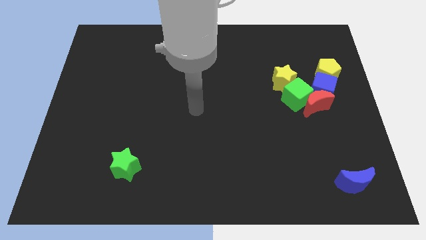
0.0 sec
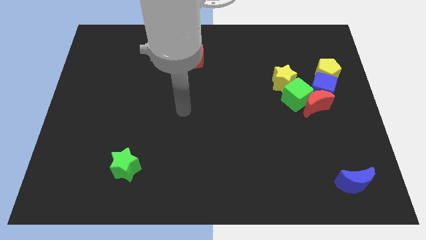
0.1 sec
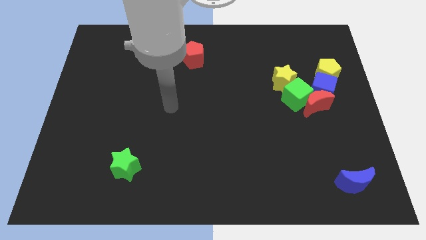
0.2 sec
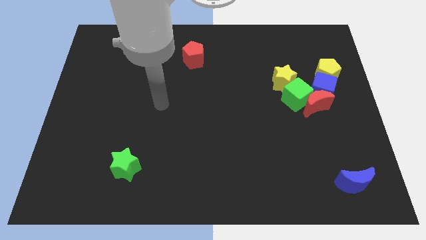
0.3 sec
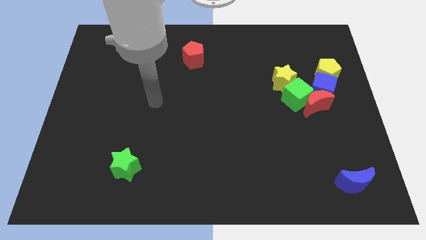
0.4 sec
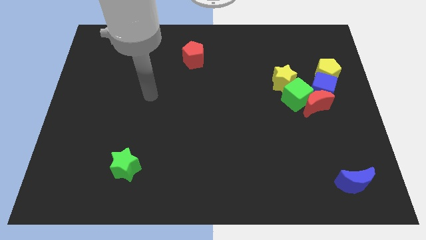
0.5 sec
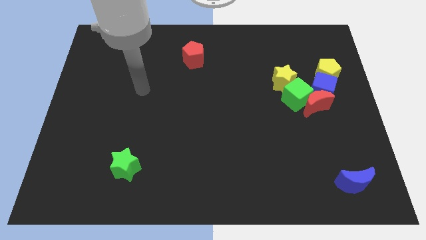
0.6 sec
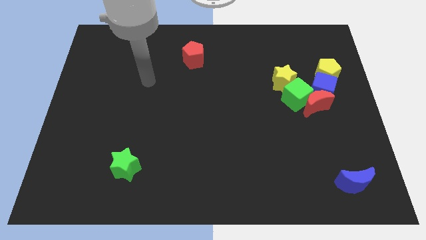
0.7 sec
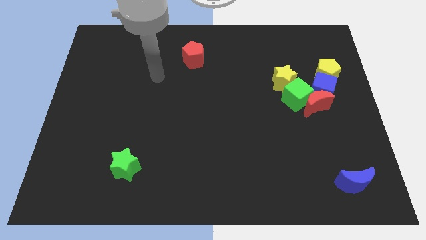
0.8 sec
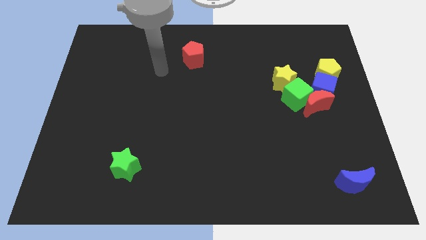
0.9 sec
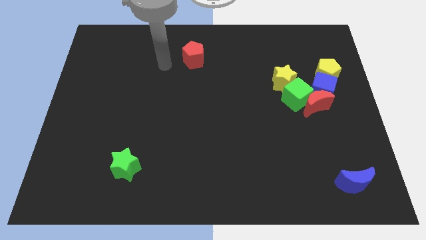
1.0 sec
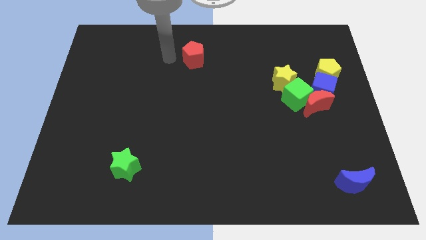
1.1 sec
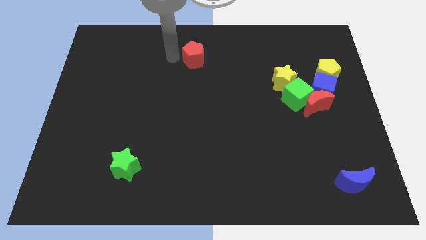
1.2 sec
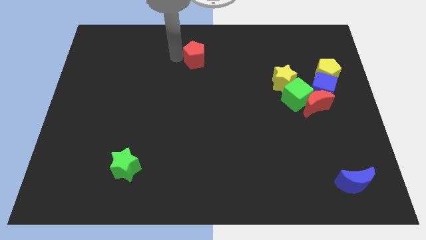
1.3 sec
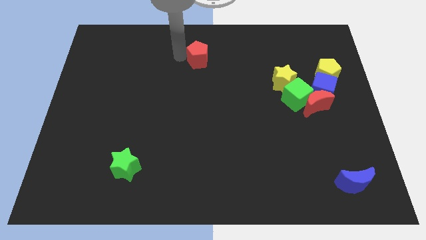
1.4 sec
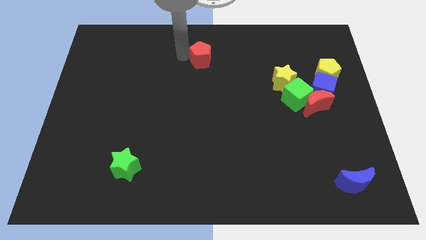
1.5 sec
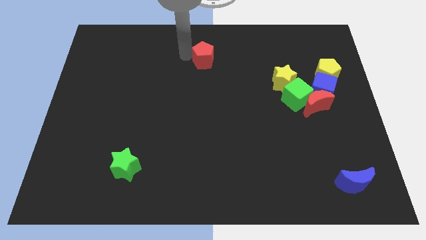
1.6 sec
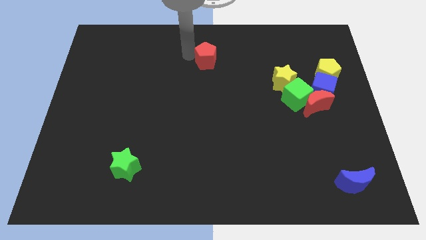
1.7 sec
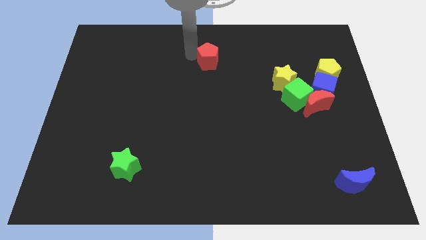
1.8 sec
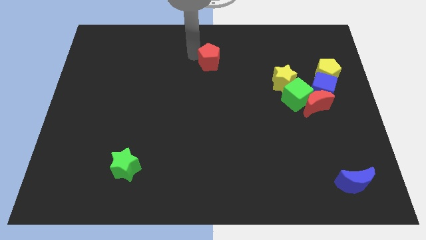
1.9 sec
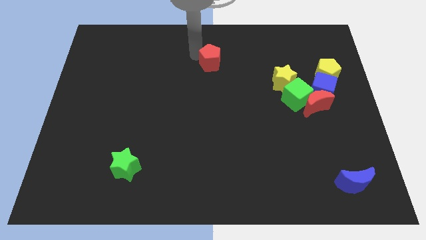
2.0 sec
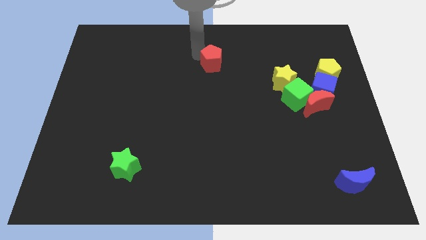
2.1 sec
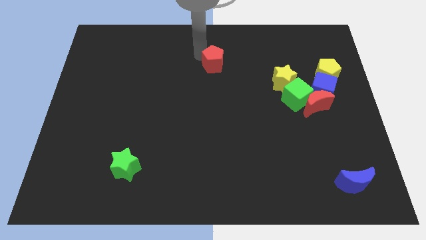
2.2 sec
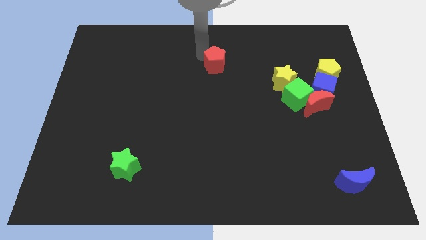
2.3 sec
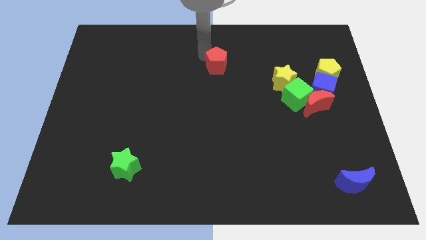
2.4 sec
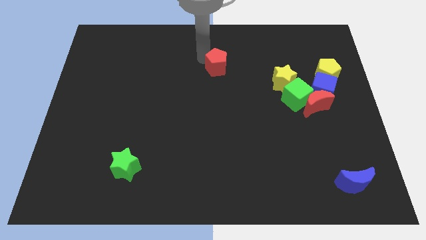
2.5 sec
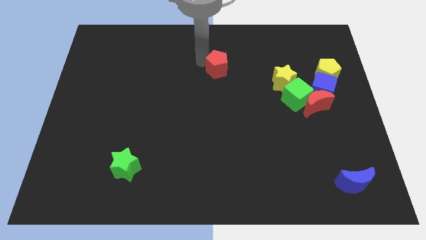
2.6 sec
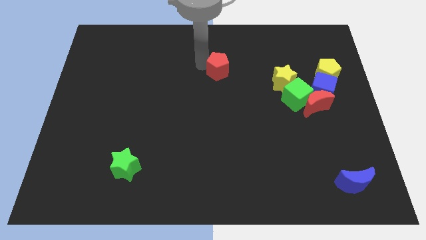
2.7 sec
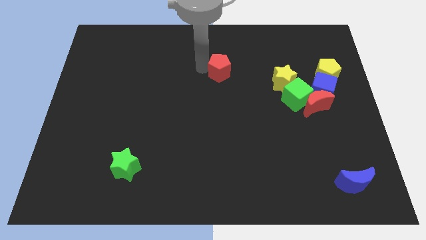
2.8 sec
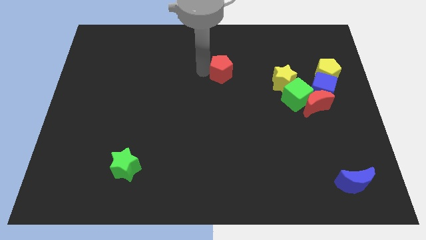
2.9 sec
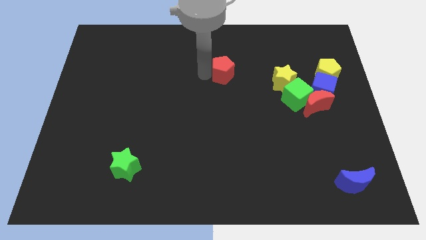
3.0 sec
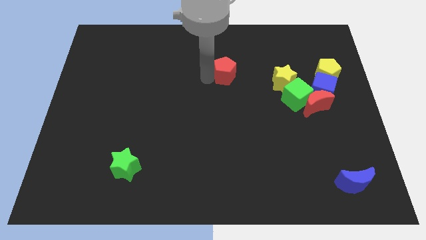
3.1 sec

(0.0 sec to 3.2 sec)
push the red pentagon to the right a little

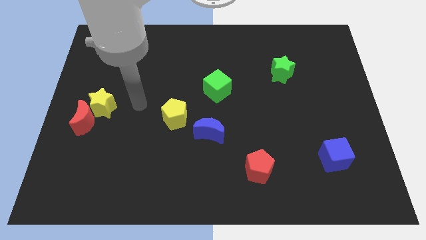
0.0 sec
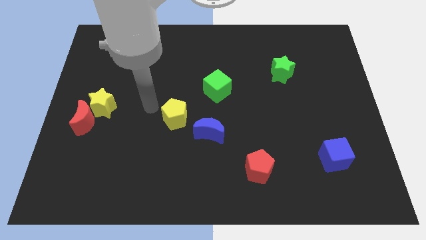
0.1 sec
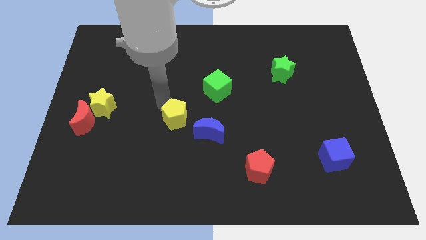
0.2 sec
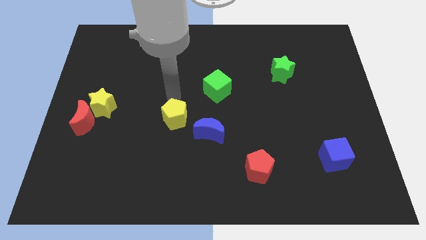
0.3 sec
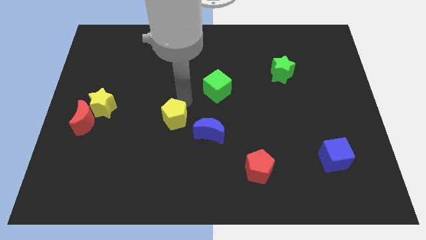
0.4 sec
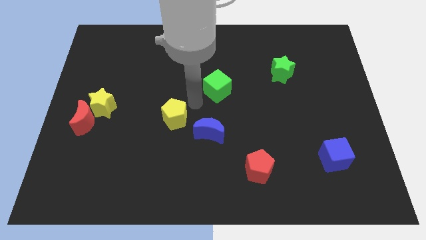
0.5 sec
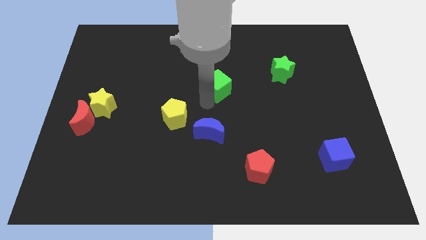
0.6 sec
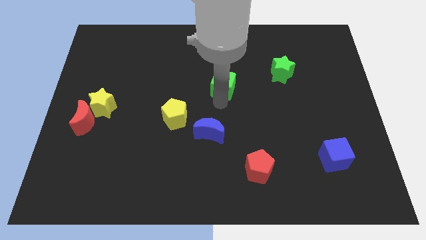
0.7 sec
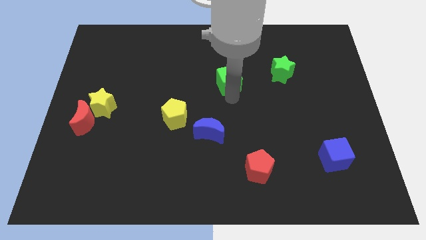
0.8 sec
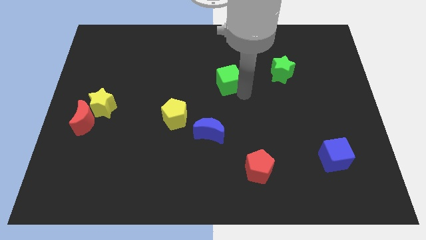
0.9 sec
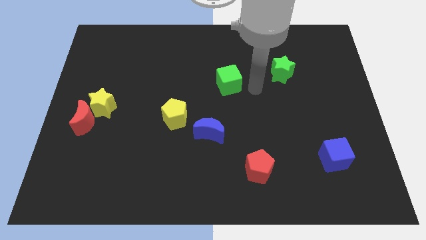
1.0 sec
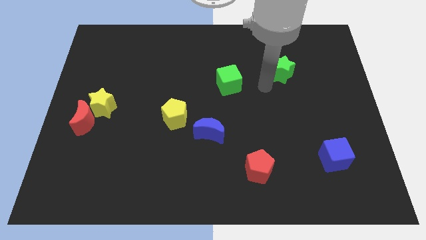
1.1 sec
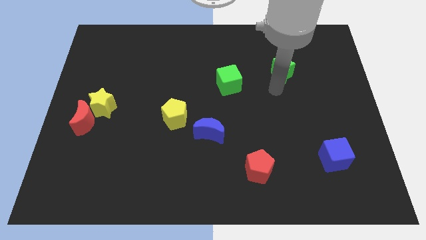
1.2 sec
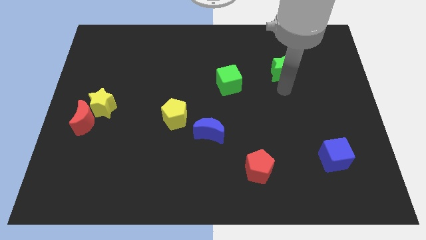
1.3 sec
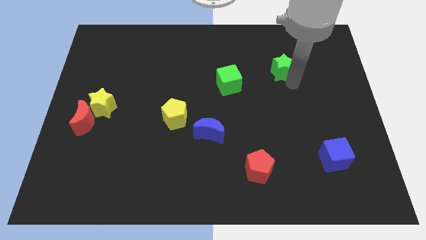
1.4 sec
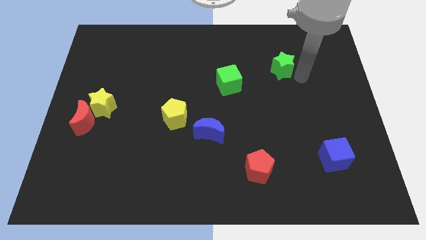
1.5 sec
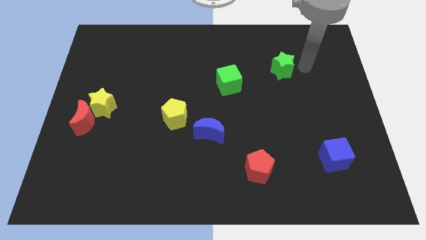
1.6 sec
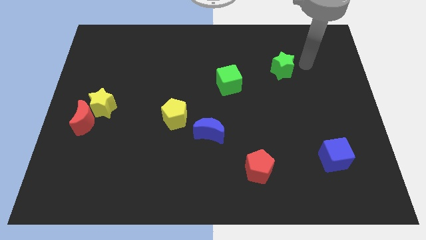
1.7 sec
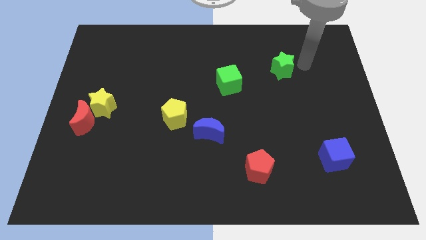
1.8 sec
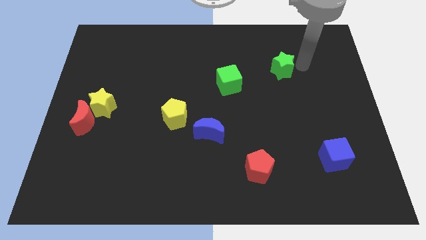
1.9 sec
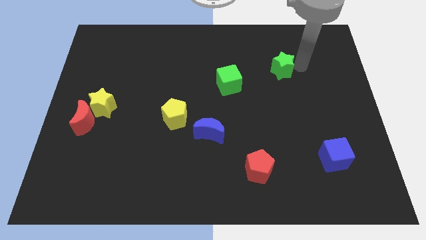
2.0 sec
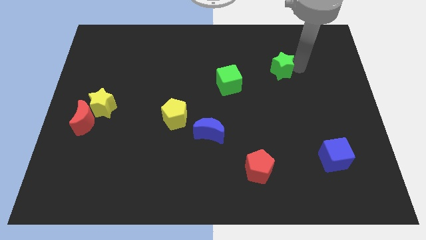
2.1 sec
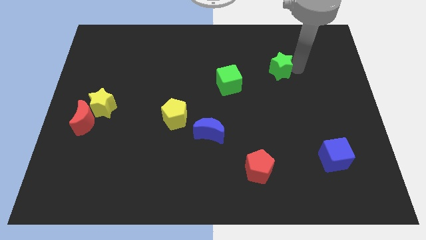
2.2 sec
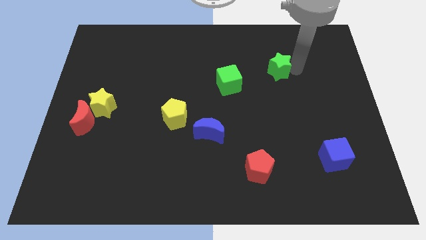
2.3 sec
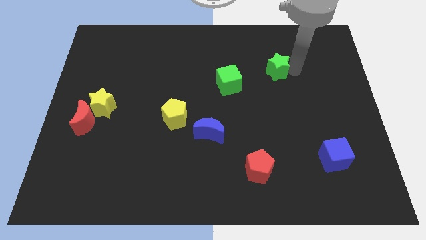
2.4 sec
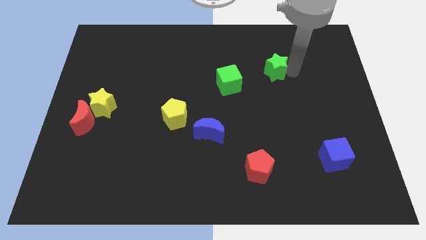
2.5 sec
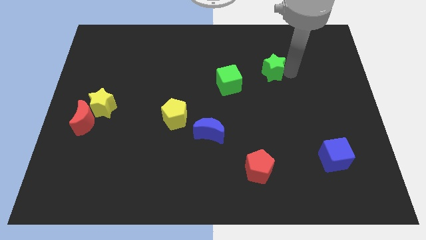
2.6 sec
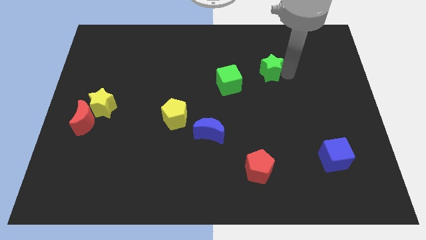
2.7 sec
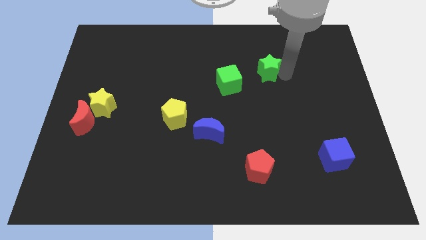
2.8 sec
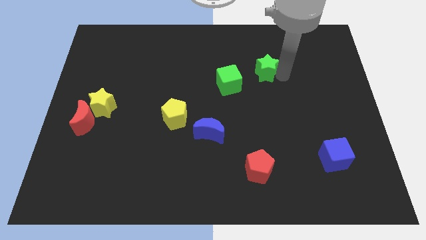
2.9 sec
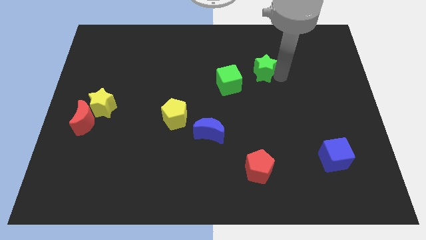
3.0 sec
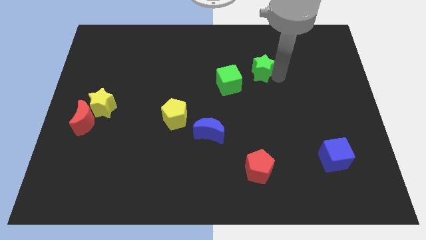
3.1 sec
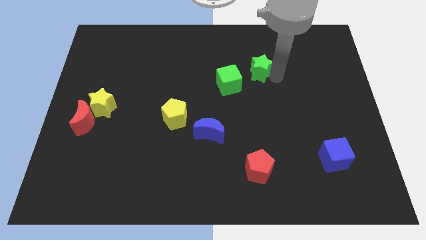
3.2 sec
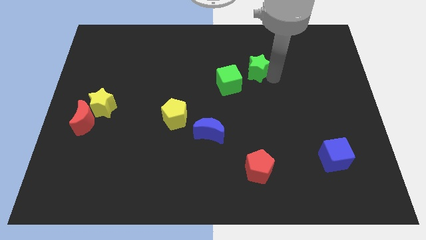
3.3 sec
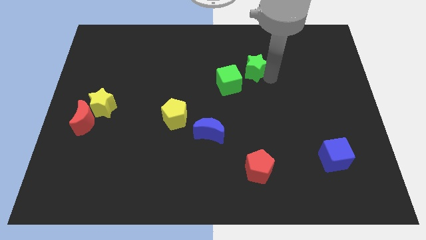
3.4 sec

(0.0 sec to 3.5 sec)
slightly push the green star left

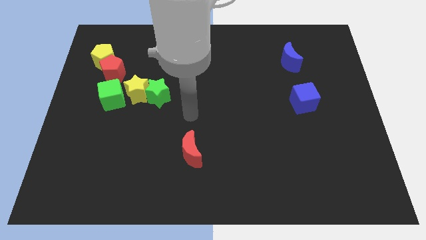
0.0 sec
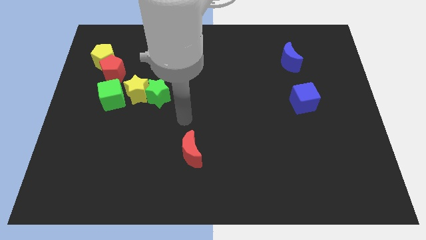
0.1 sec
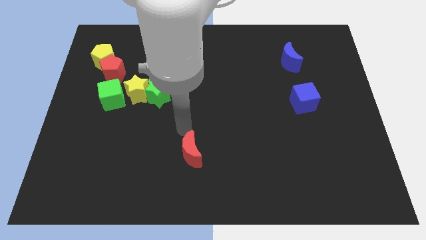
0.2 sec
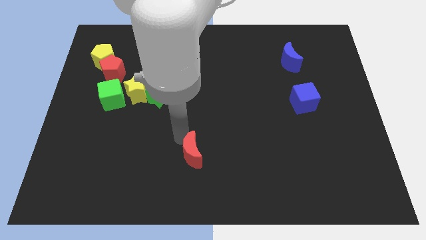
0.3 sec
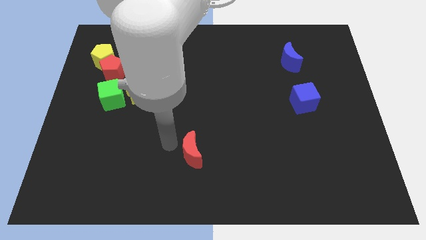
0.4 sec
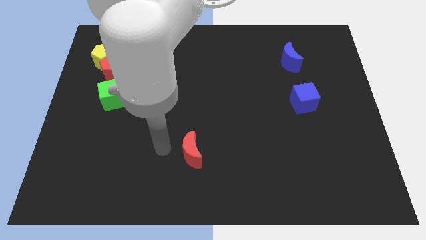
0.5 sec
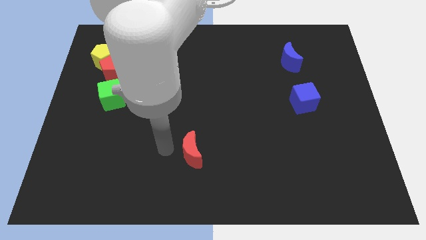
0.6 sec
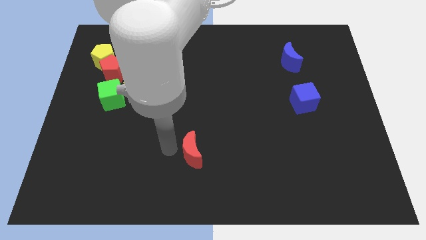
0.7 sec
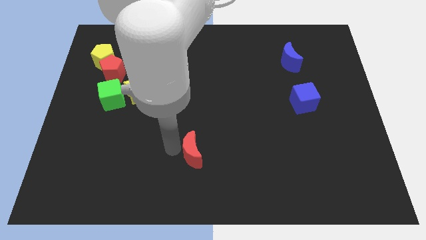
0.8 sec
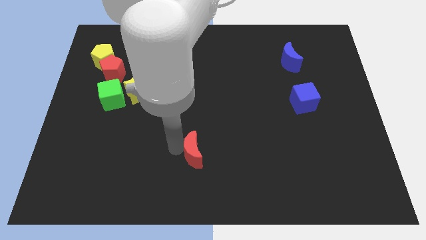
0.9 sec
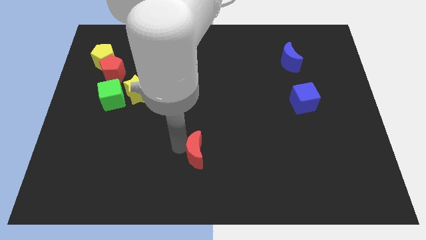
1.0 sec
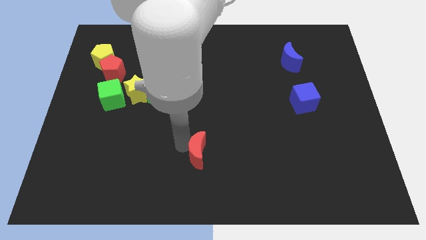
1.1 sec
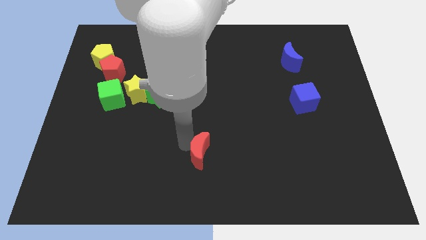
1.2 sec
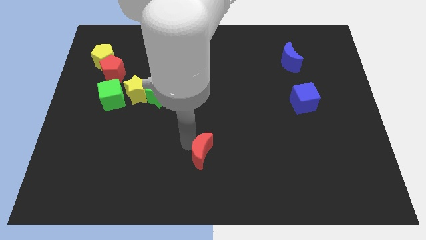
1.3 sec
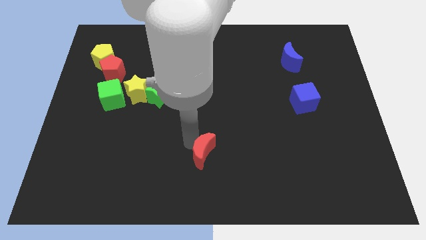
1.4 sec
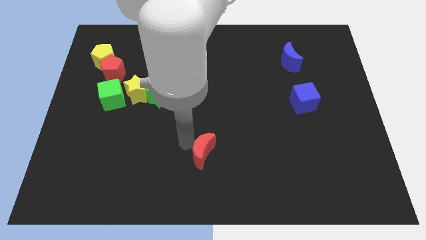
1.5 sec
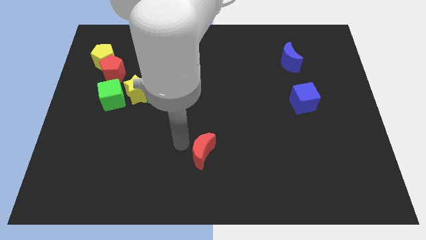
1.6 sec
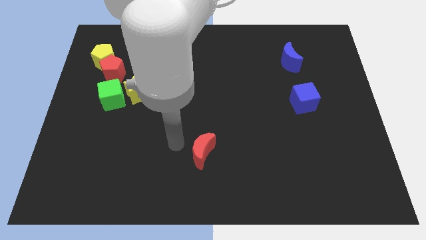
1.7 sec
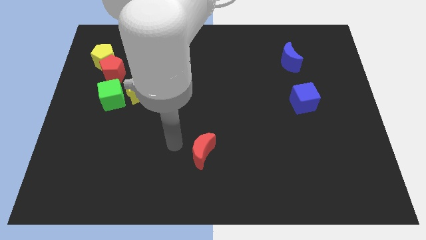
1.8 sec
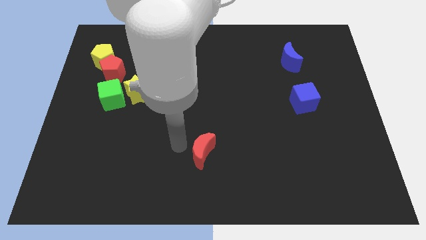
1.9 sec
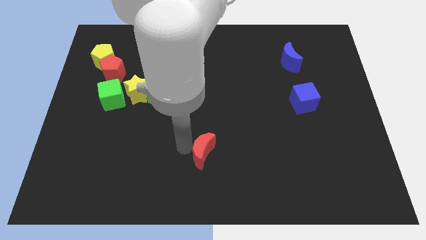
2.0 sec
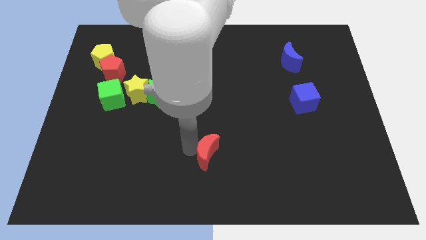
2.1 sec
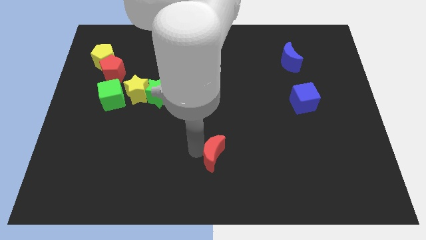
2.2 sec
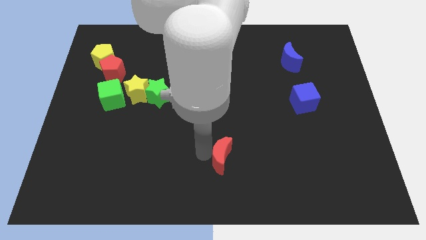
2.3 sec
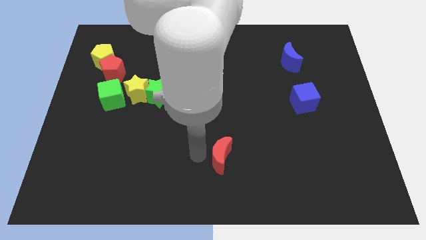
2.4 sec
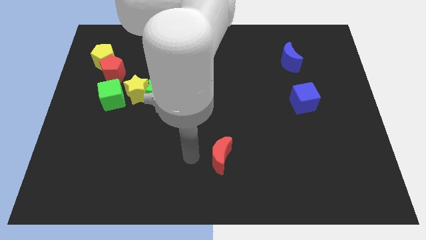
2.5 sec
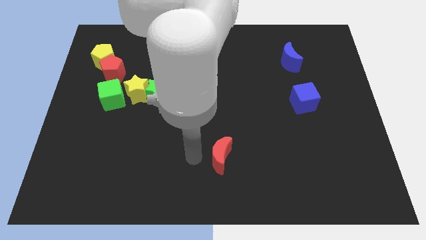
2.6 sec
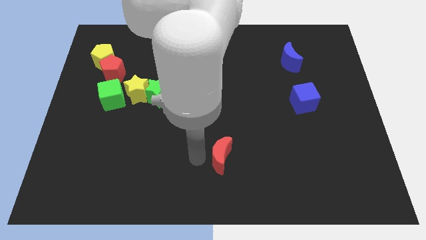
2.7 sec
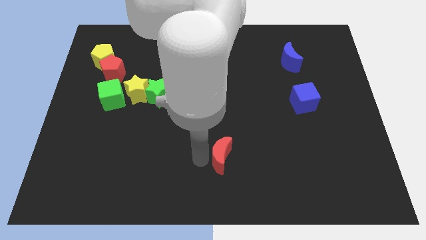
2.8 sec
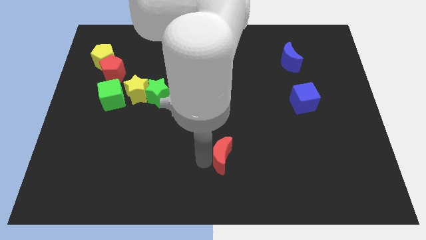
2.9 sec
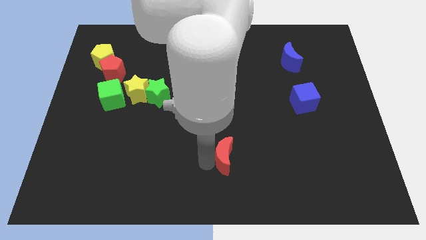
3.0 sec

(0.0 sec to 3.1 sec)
push the red moon to the right a little
